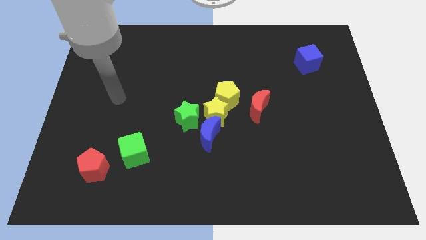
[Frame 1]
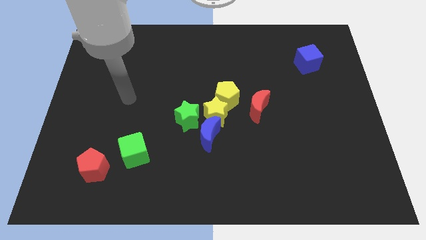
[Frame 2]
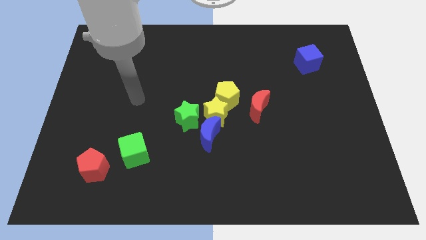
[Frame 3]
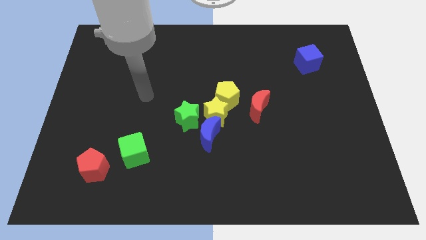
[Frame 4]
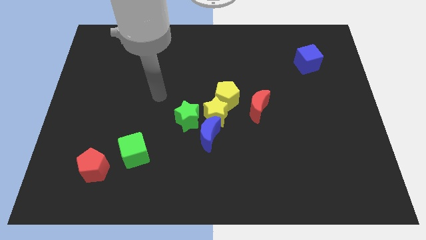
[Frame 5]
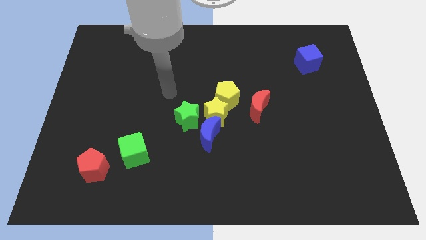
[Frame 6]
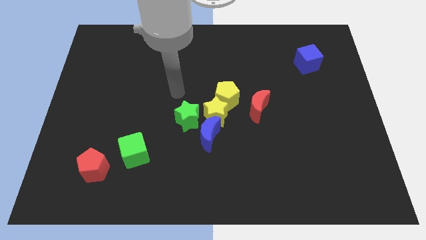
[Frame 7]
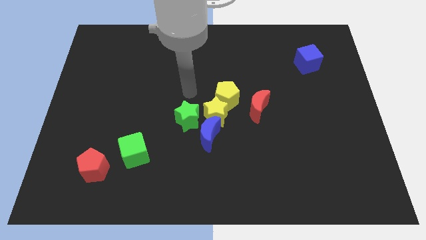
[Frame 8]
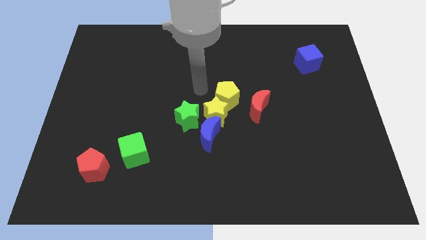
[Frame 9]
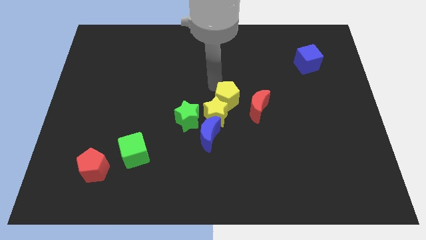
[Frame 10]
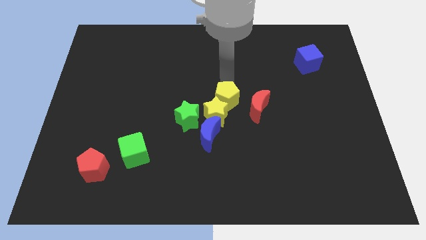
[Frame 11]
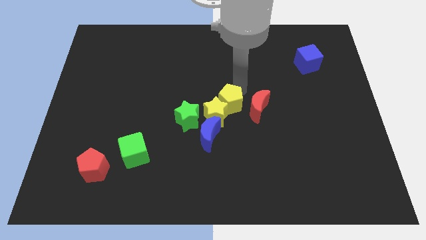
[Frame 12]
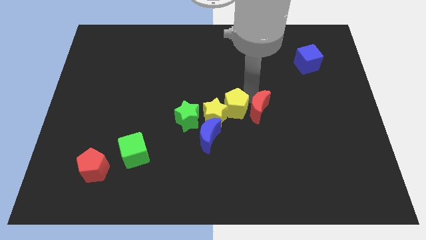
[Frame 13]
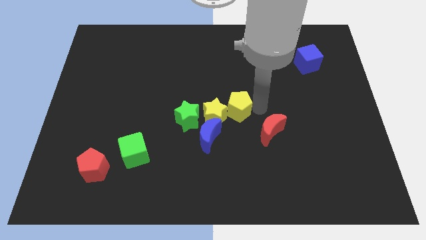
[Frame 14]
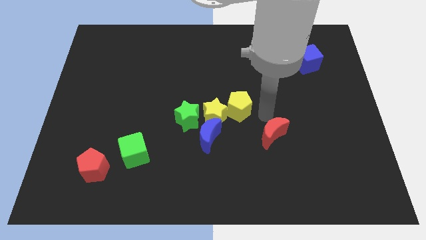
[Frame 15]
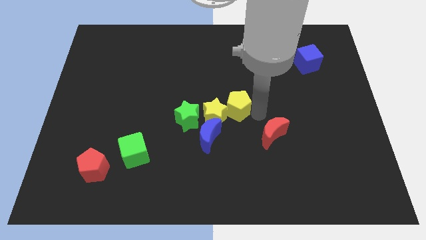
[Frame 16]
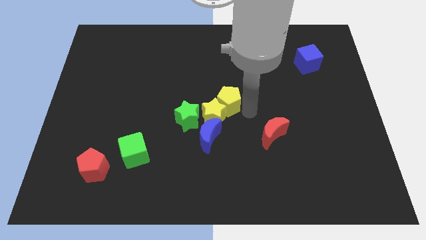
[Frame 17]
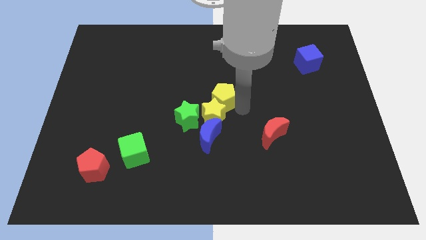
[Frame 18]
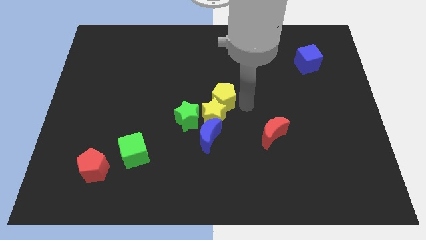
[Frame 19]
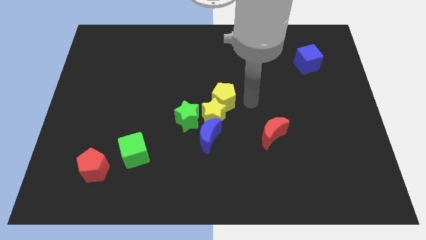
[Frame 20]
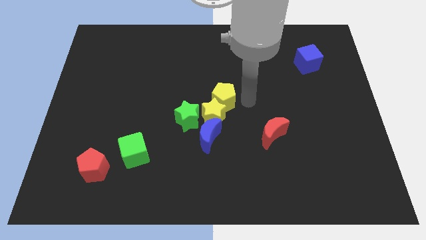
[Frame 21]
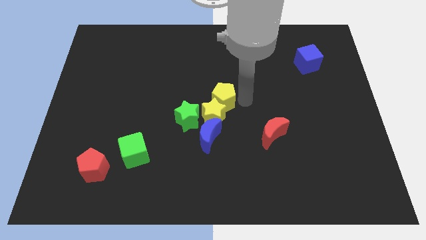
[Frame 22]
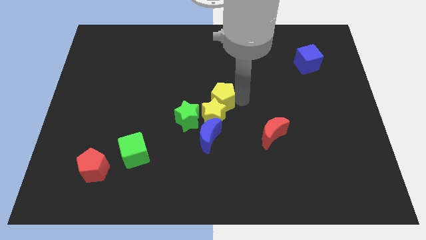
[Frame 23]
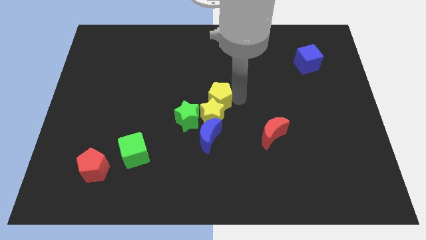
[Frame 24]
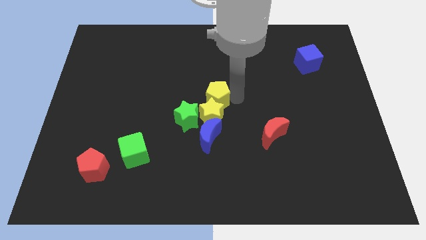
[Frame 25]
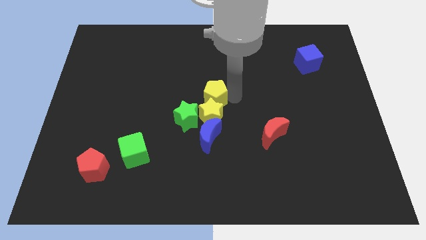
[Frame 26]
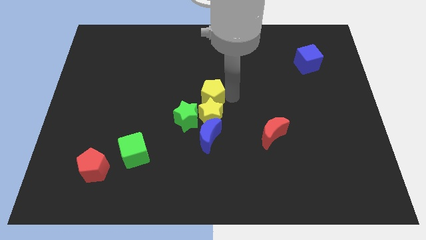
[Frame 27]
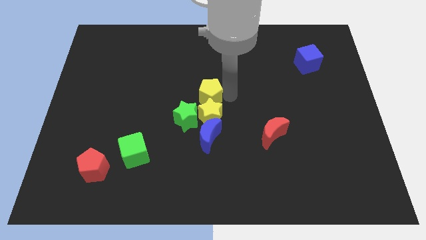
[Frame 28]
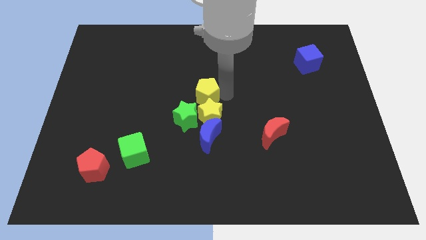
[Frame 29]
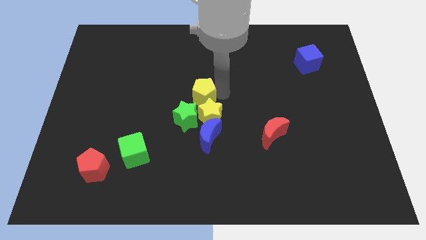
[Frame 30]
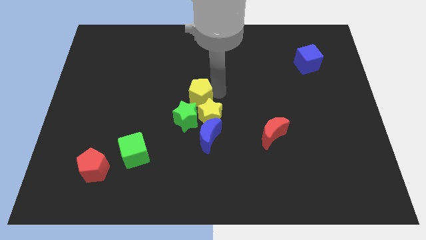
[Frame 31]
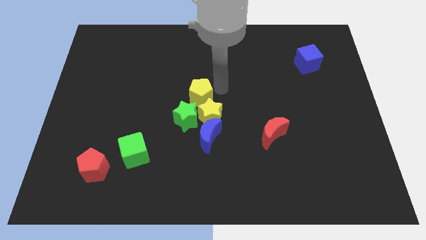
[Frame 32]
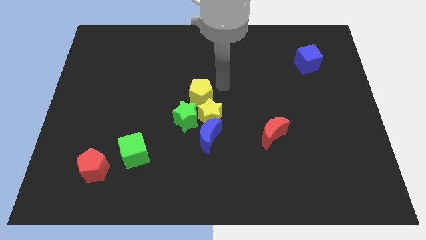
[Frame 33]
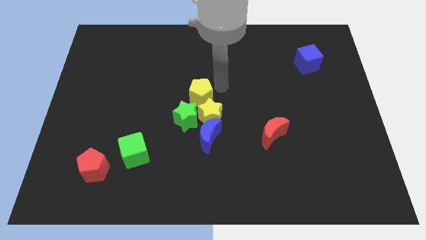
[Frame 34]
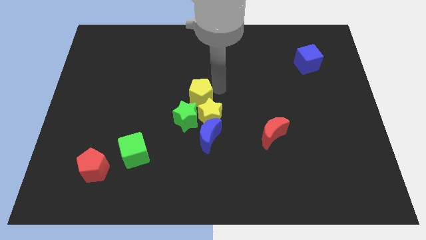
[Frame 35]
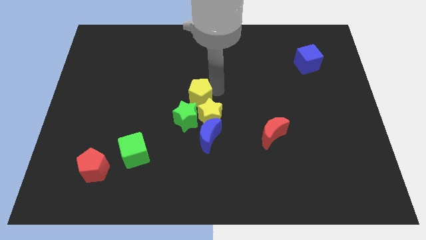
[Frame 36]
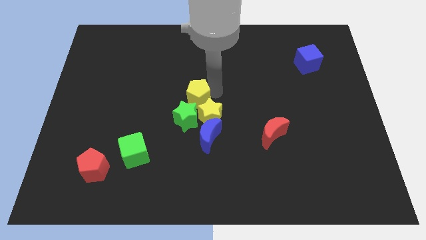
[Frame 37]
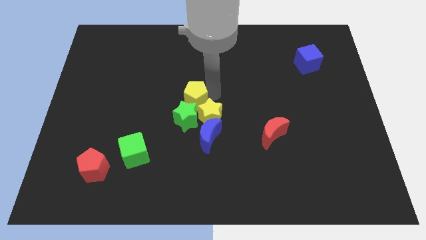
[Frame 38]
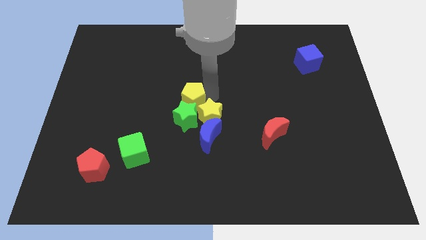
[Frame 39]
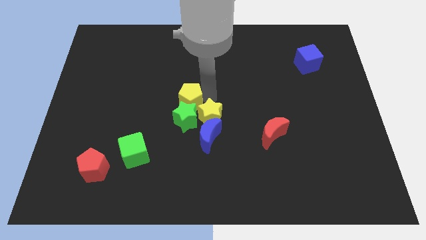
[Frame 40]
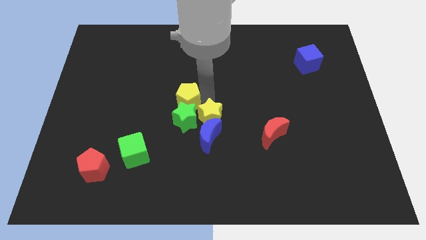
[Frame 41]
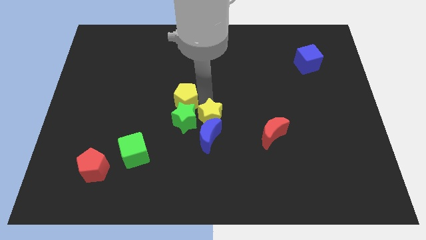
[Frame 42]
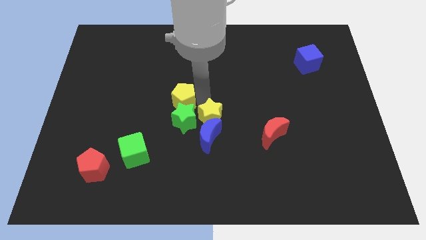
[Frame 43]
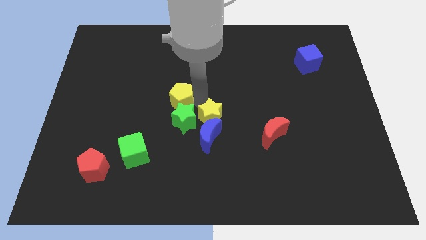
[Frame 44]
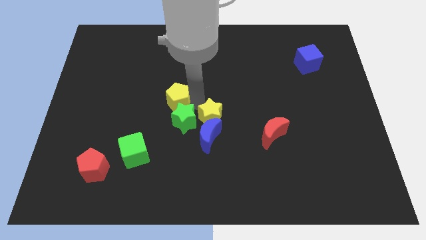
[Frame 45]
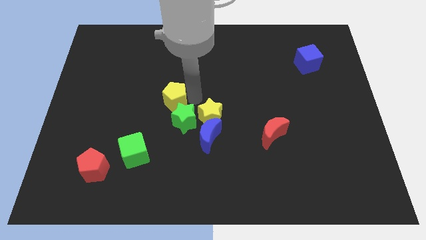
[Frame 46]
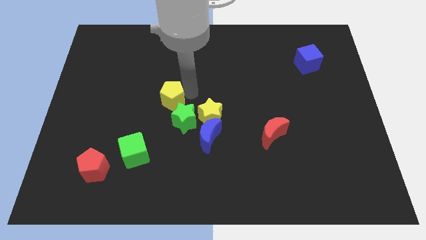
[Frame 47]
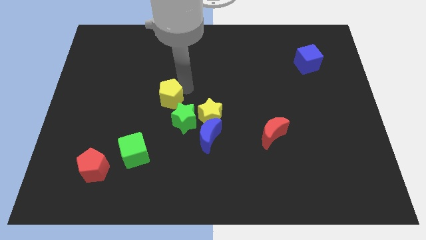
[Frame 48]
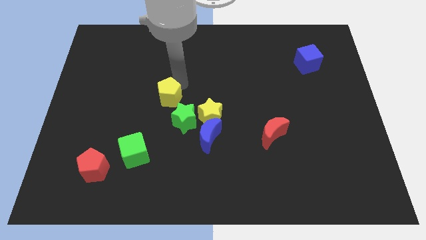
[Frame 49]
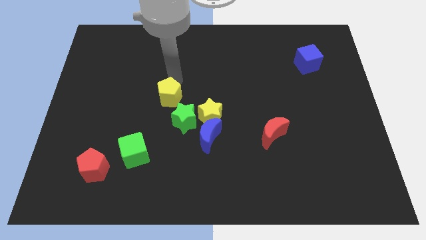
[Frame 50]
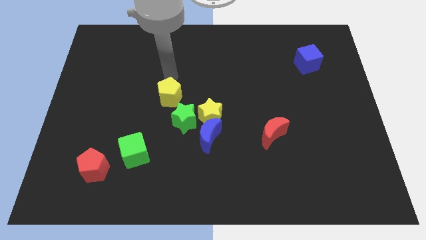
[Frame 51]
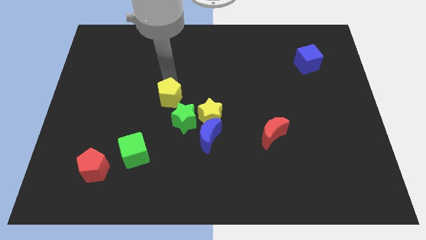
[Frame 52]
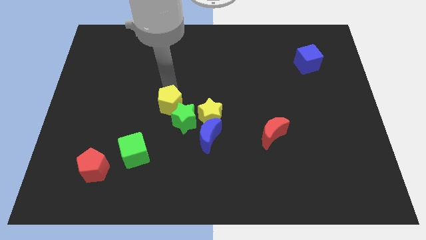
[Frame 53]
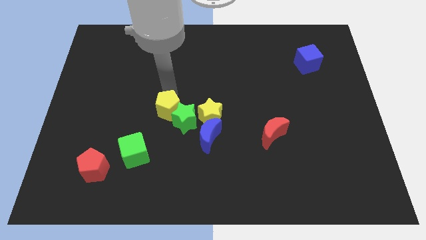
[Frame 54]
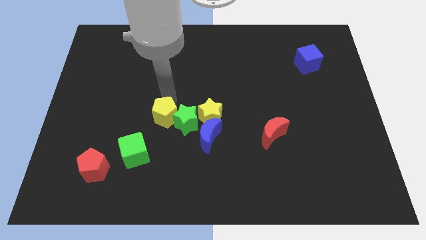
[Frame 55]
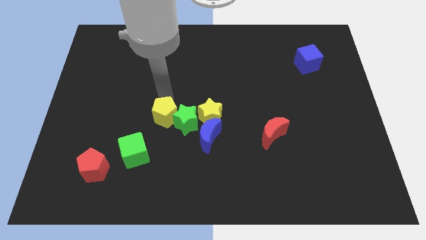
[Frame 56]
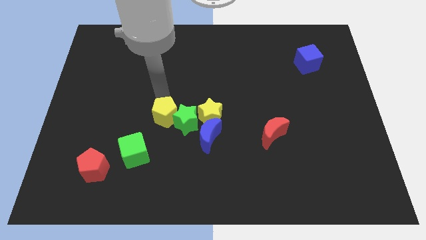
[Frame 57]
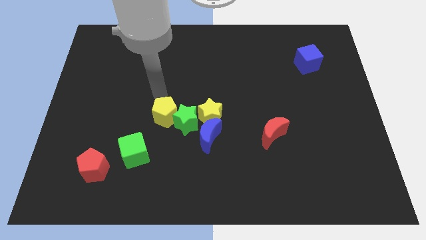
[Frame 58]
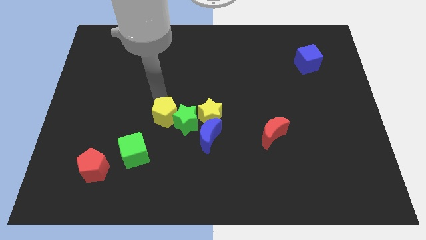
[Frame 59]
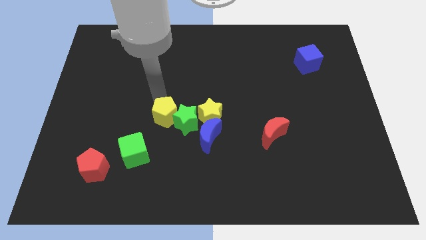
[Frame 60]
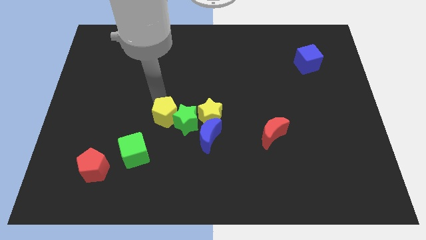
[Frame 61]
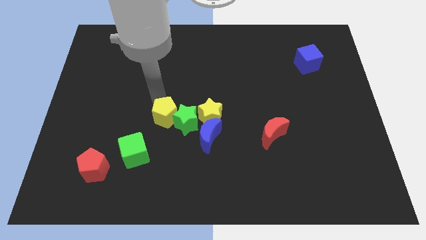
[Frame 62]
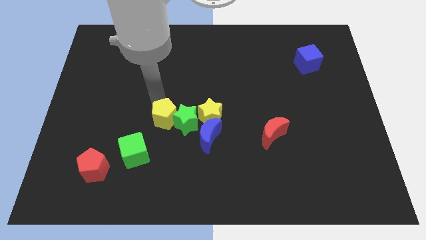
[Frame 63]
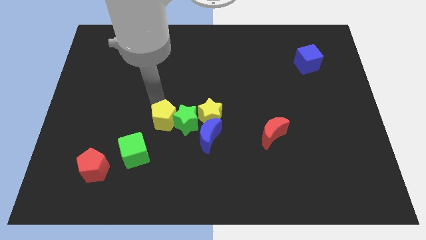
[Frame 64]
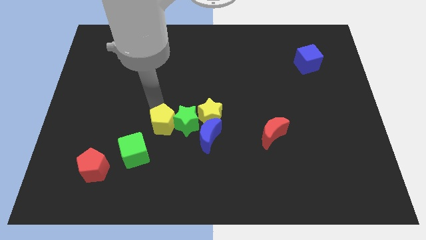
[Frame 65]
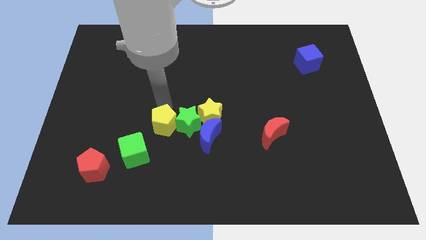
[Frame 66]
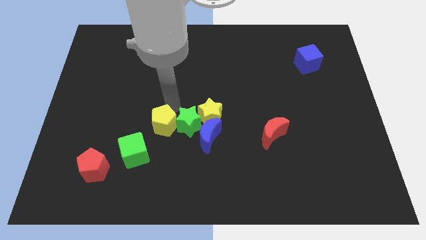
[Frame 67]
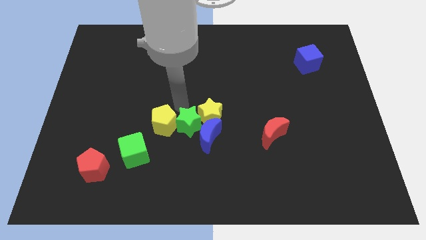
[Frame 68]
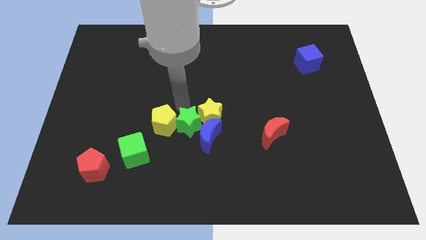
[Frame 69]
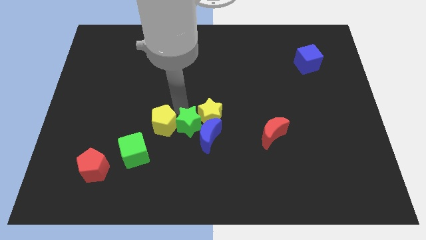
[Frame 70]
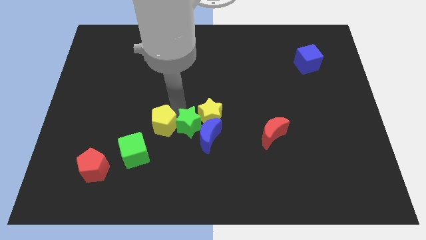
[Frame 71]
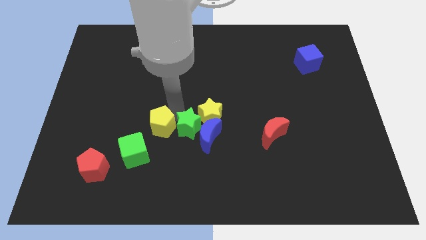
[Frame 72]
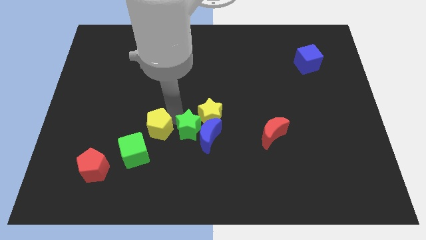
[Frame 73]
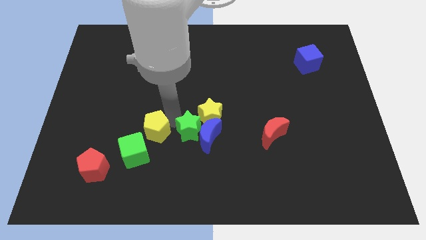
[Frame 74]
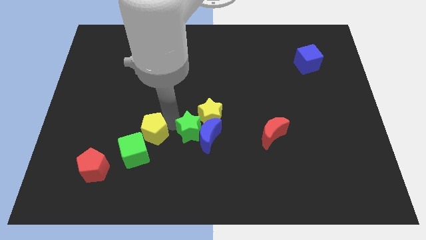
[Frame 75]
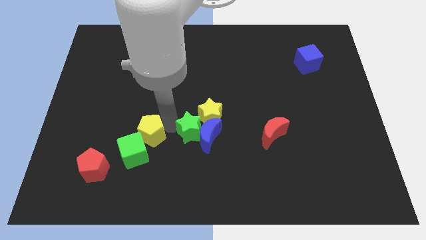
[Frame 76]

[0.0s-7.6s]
slide the yellow pentagon to the green cube
